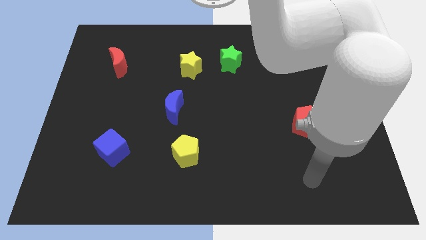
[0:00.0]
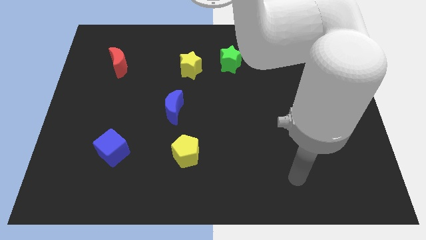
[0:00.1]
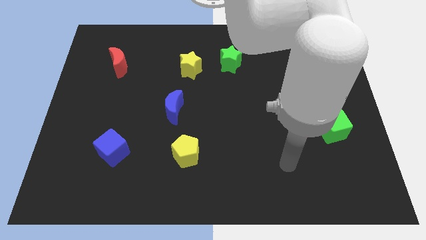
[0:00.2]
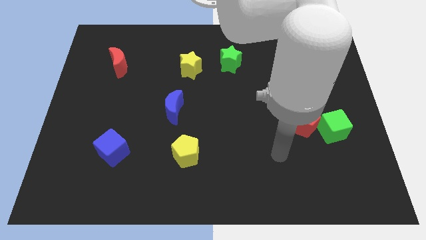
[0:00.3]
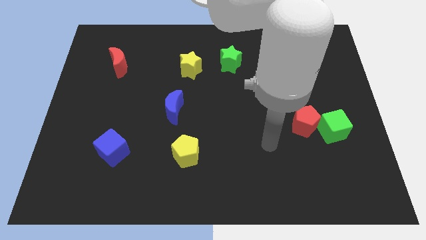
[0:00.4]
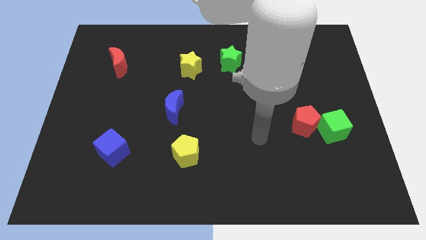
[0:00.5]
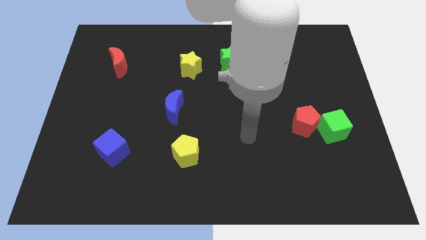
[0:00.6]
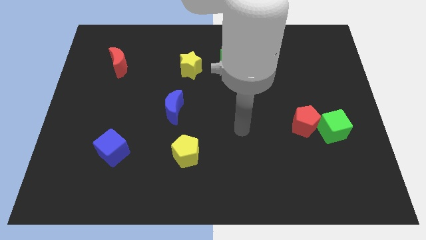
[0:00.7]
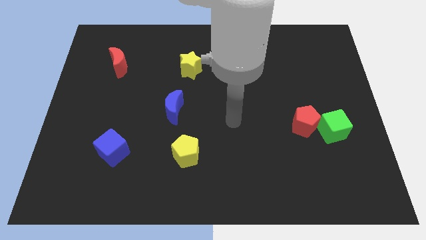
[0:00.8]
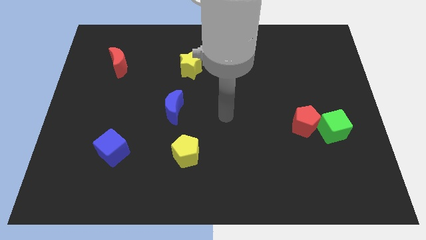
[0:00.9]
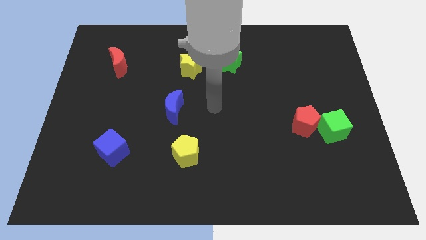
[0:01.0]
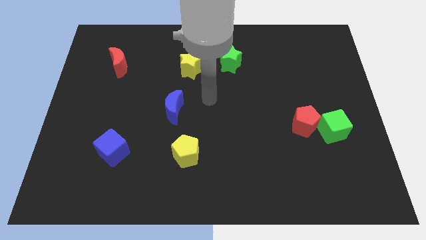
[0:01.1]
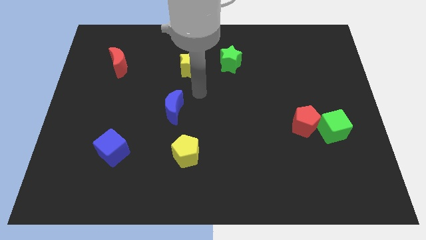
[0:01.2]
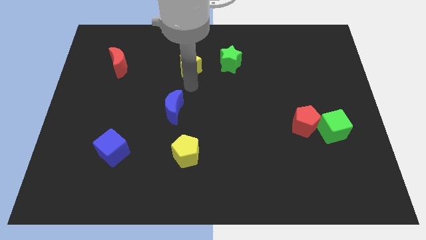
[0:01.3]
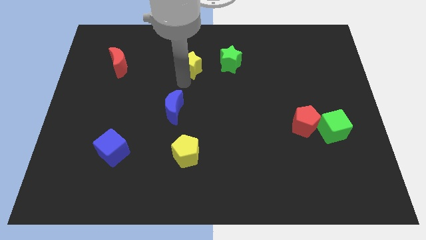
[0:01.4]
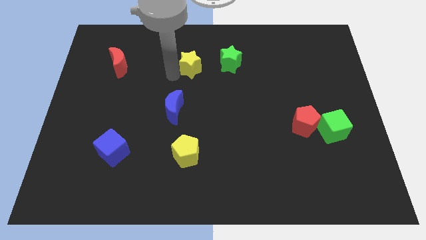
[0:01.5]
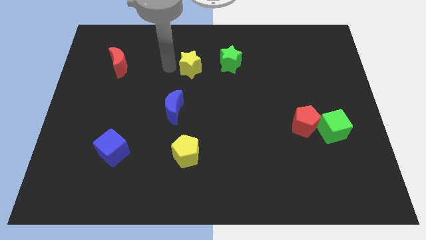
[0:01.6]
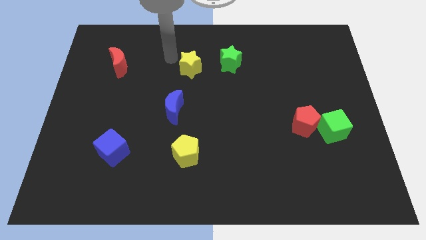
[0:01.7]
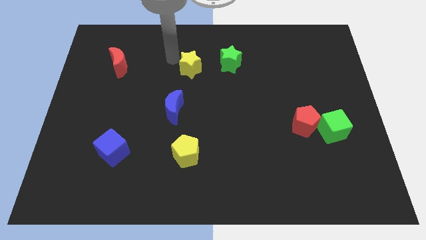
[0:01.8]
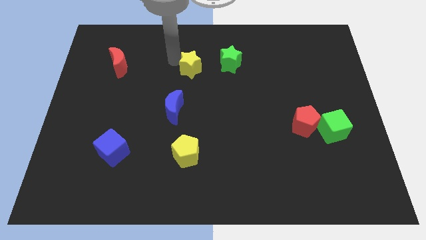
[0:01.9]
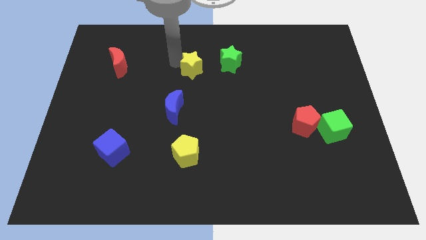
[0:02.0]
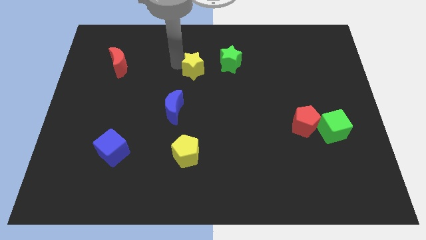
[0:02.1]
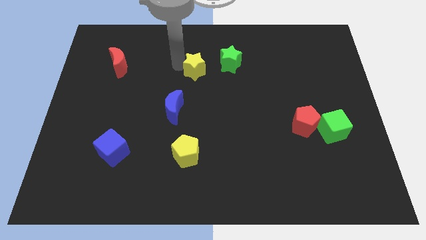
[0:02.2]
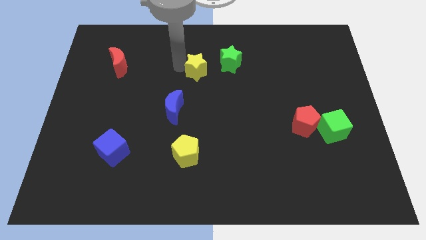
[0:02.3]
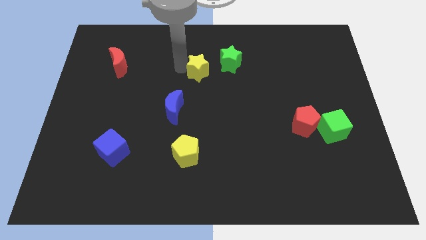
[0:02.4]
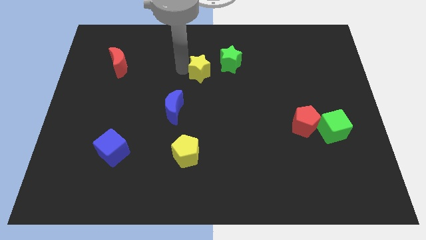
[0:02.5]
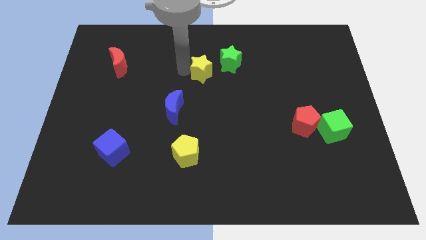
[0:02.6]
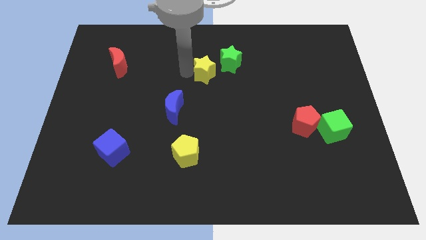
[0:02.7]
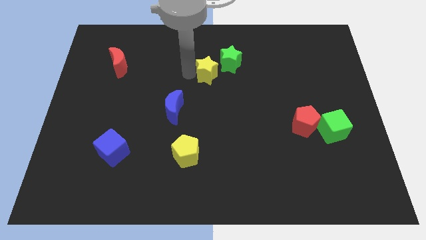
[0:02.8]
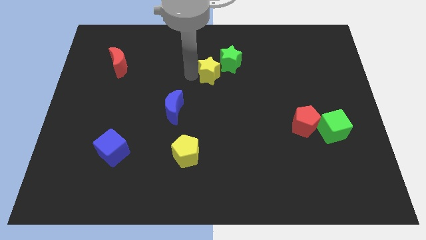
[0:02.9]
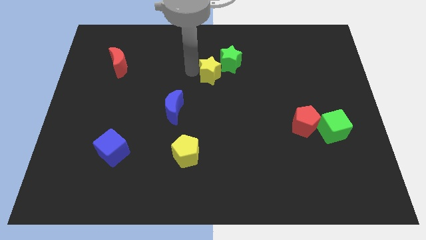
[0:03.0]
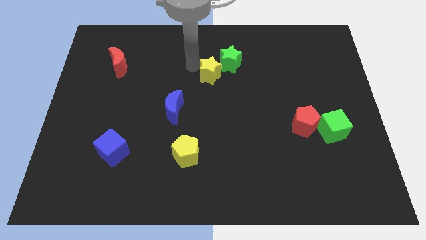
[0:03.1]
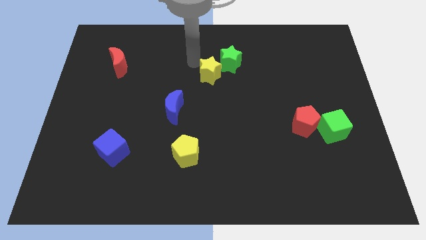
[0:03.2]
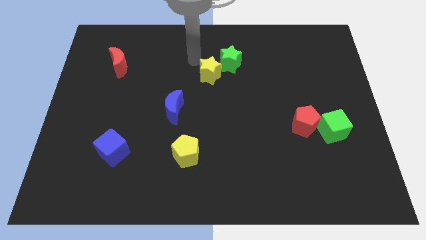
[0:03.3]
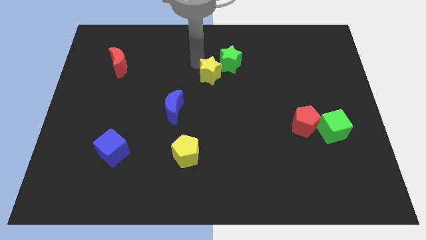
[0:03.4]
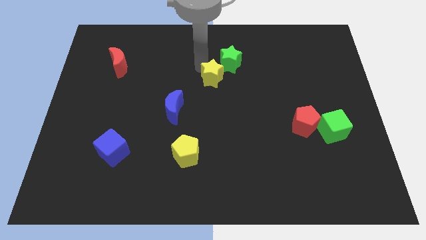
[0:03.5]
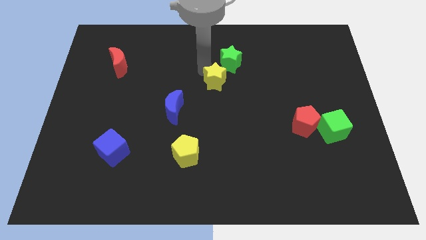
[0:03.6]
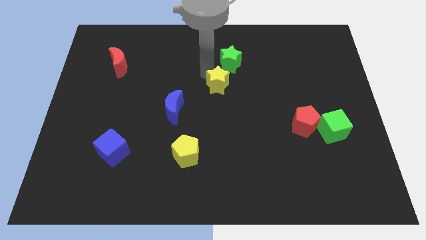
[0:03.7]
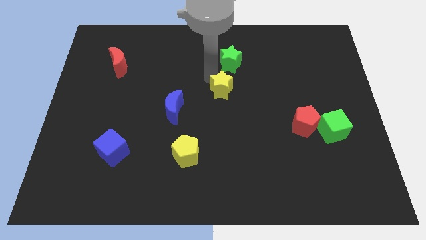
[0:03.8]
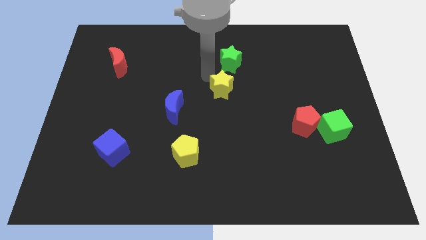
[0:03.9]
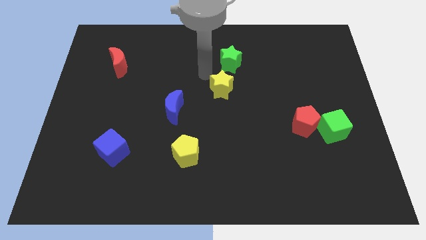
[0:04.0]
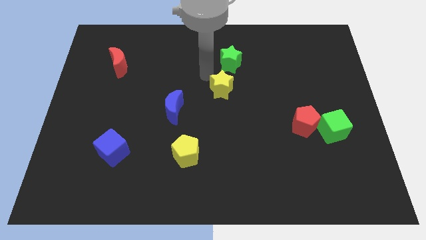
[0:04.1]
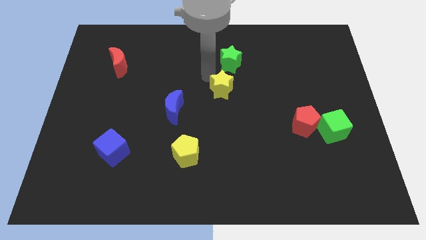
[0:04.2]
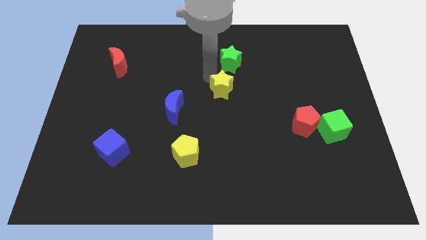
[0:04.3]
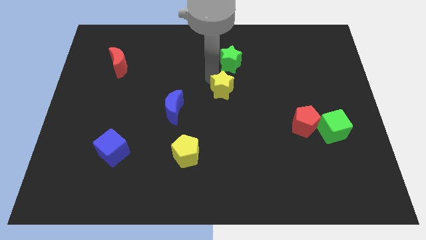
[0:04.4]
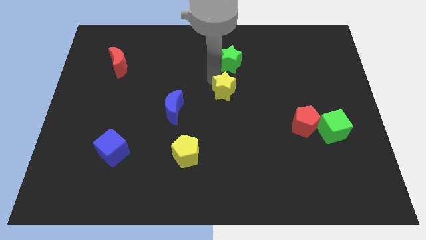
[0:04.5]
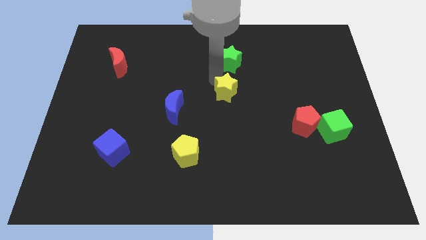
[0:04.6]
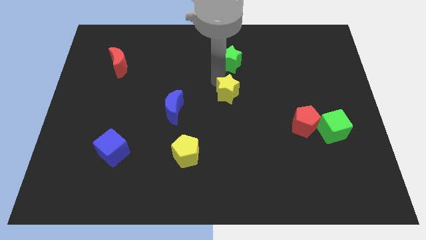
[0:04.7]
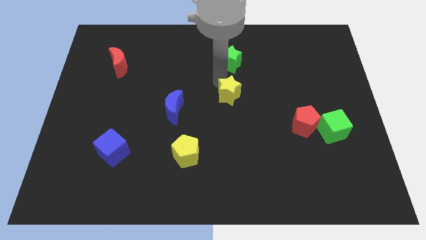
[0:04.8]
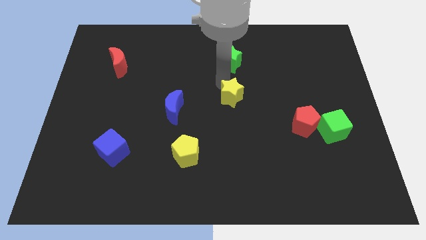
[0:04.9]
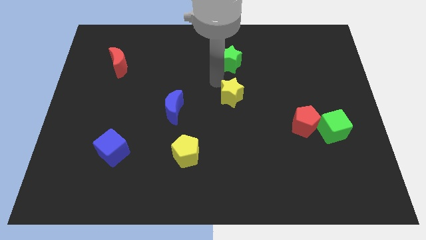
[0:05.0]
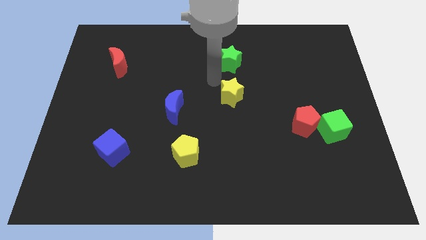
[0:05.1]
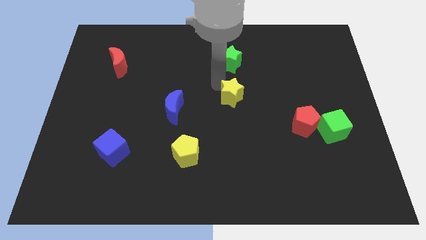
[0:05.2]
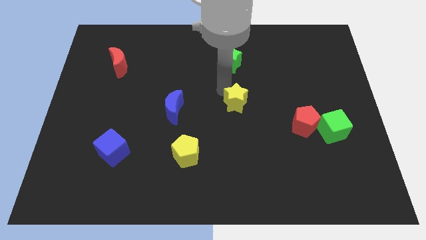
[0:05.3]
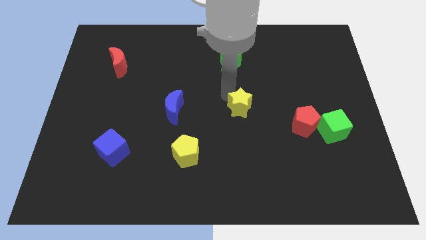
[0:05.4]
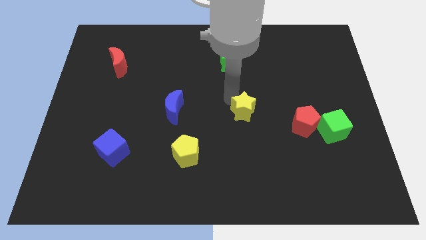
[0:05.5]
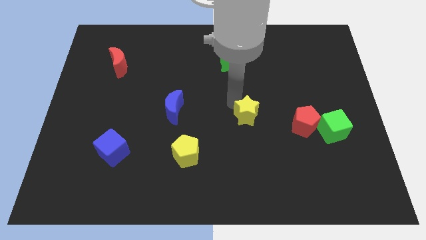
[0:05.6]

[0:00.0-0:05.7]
push the yellow star diagonally down and to the right

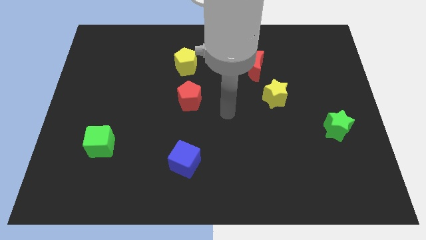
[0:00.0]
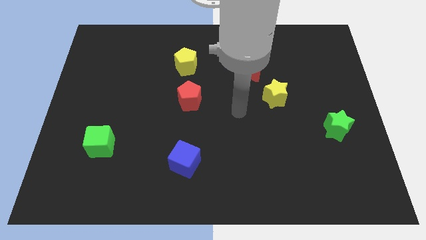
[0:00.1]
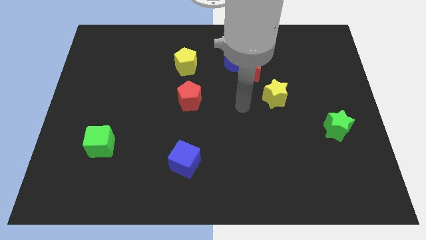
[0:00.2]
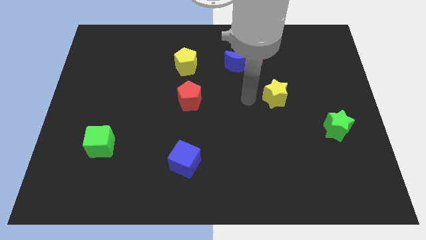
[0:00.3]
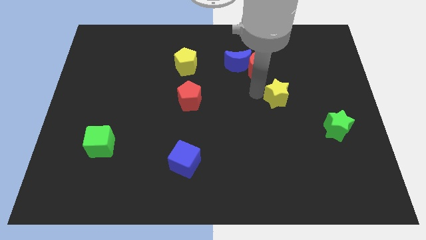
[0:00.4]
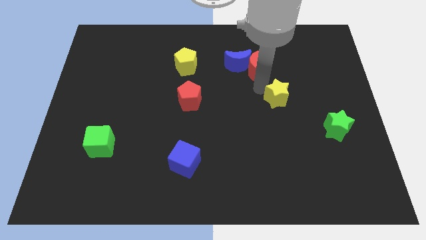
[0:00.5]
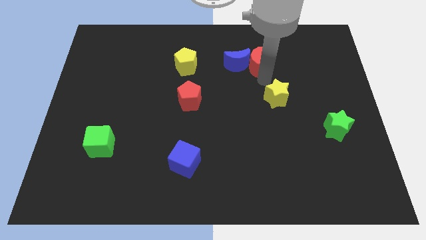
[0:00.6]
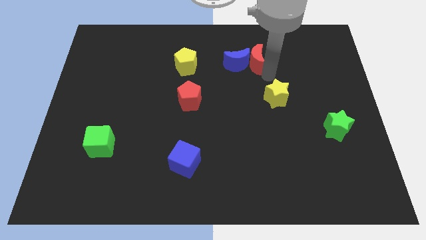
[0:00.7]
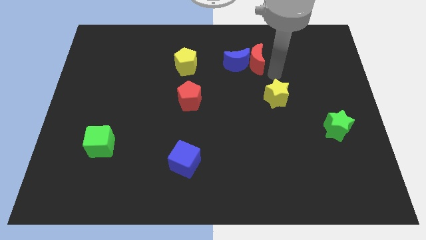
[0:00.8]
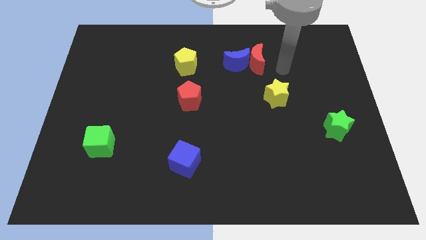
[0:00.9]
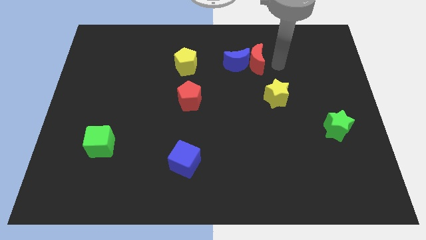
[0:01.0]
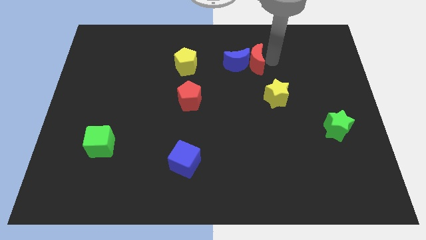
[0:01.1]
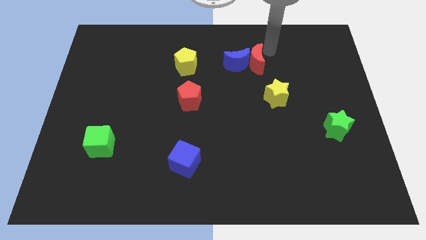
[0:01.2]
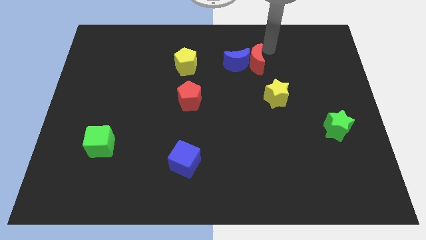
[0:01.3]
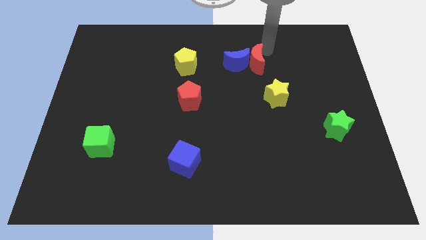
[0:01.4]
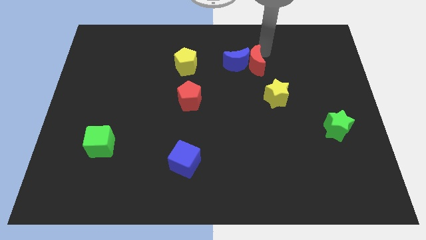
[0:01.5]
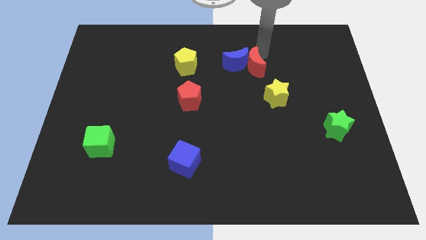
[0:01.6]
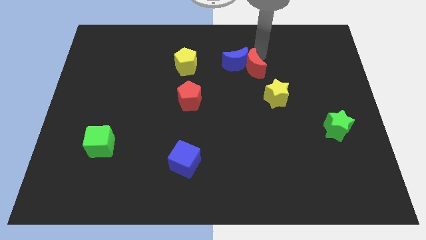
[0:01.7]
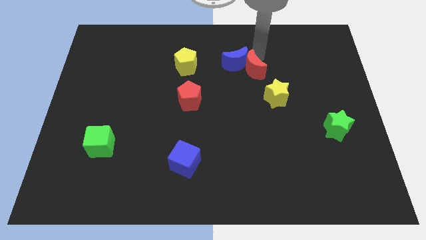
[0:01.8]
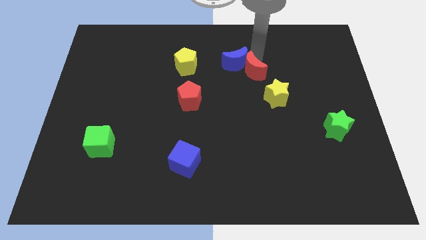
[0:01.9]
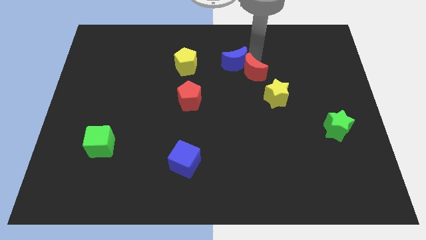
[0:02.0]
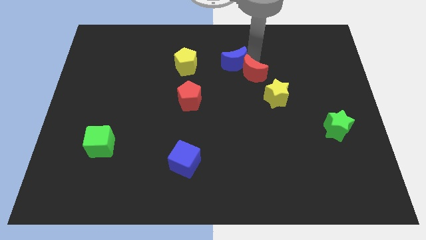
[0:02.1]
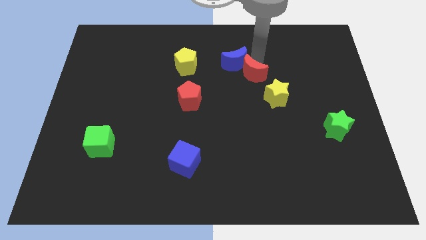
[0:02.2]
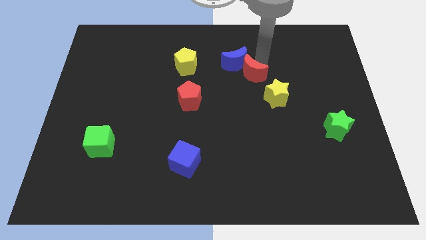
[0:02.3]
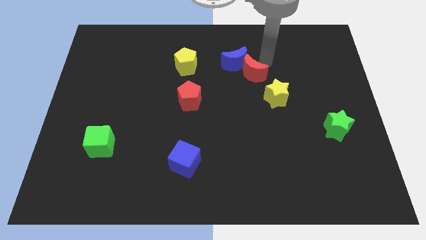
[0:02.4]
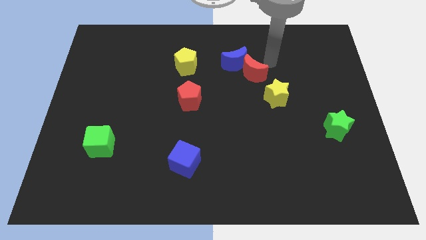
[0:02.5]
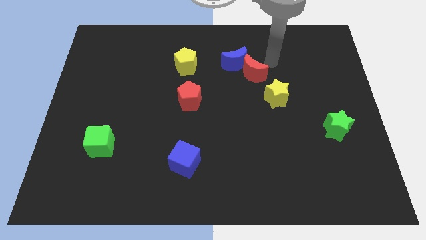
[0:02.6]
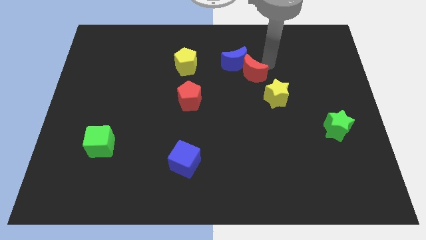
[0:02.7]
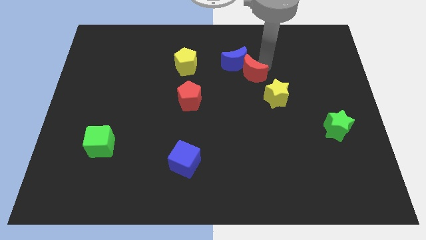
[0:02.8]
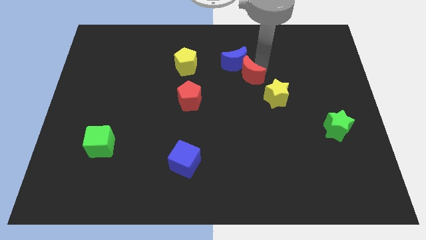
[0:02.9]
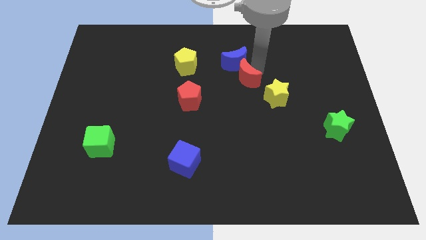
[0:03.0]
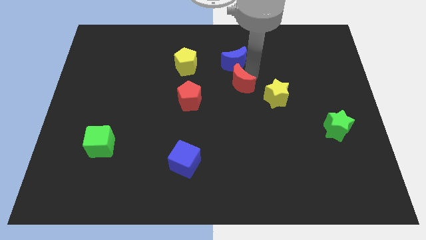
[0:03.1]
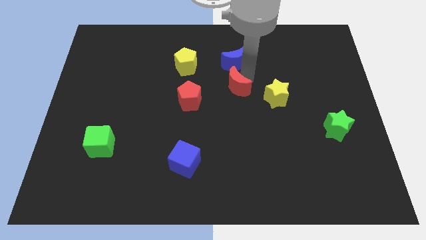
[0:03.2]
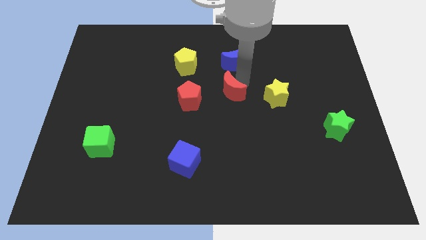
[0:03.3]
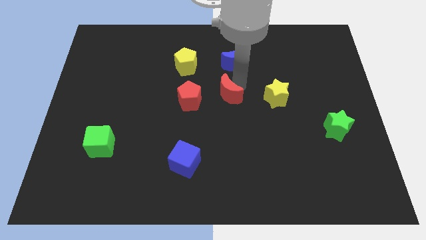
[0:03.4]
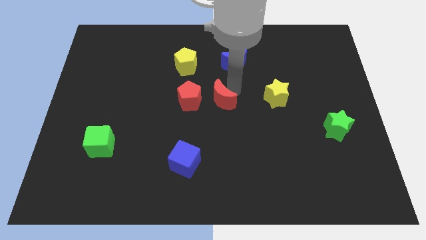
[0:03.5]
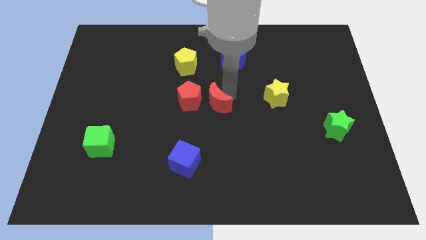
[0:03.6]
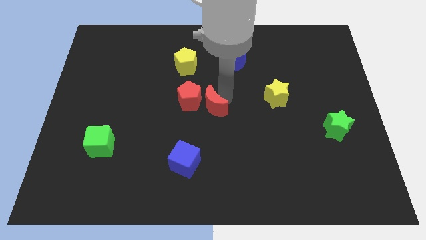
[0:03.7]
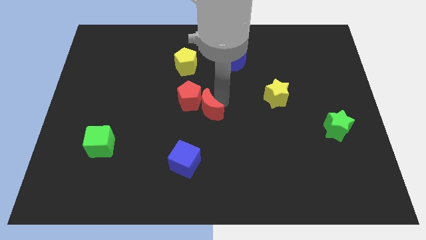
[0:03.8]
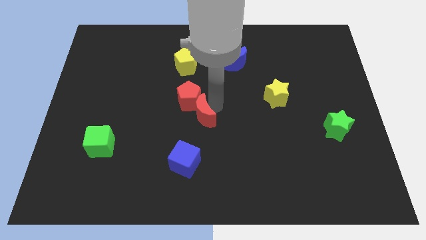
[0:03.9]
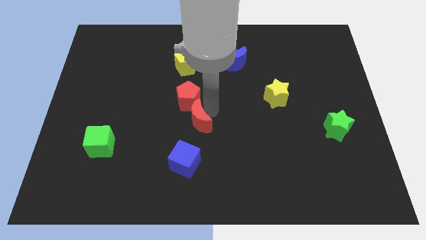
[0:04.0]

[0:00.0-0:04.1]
slide the red moon downwards and to the left
